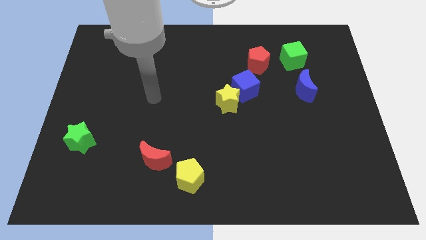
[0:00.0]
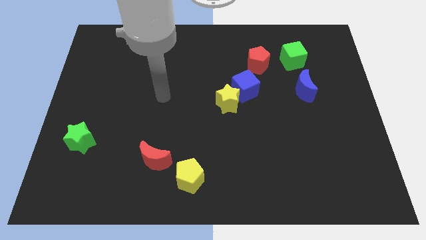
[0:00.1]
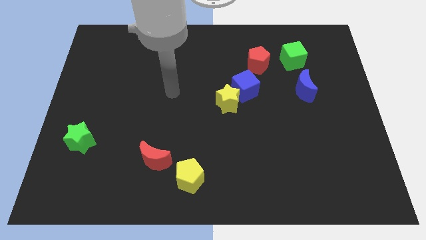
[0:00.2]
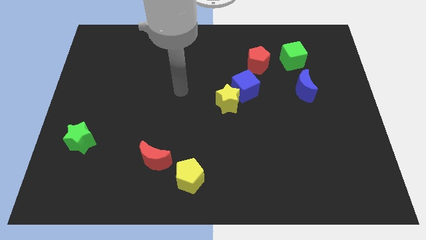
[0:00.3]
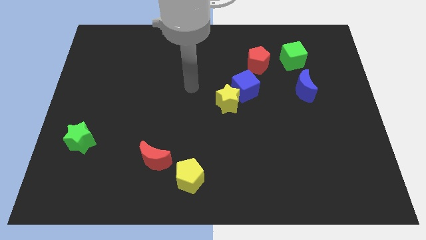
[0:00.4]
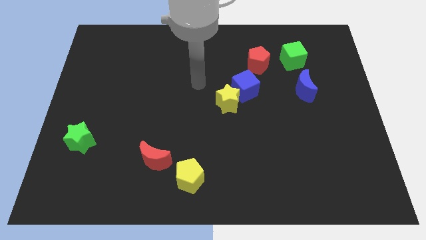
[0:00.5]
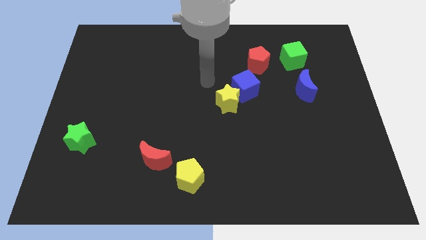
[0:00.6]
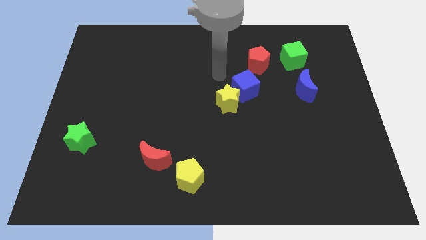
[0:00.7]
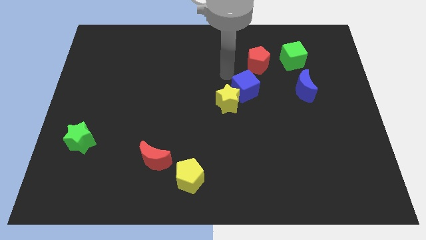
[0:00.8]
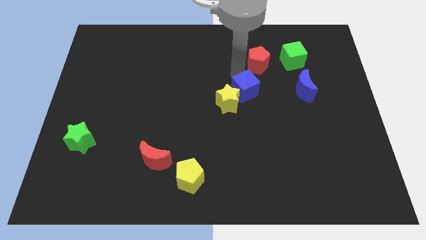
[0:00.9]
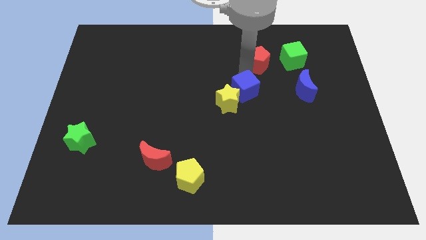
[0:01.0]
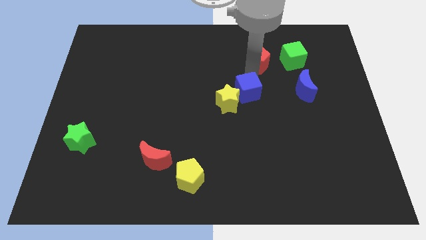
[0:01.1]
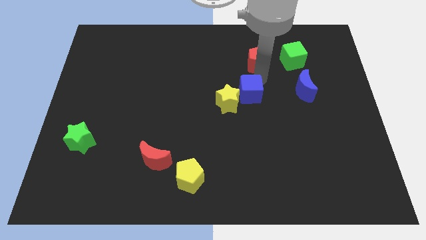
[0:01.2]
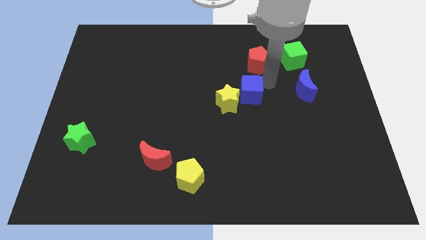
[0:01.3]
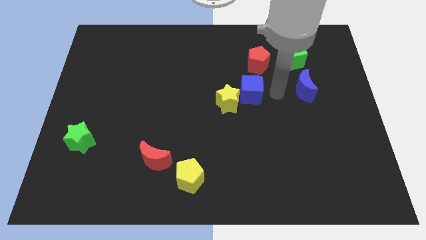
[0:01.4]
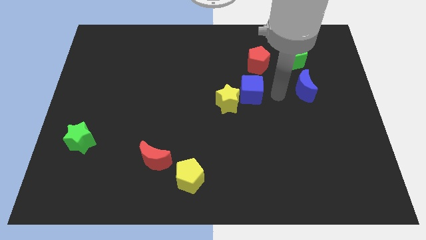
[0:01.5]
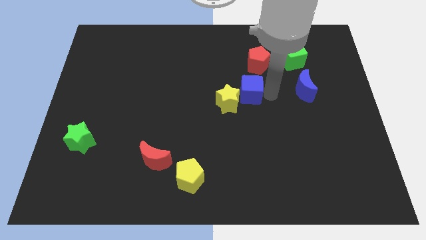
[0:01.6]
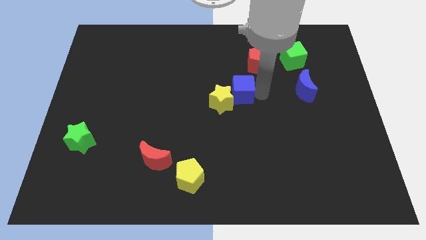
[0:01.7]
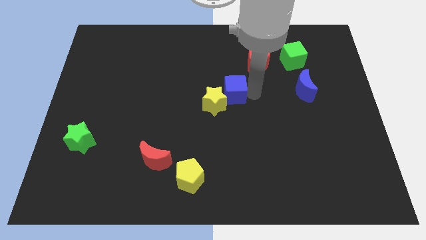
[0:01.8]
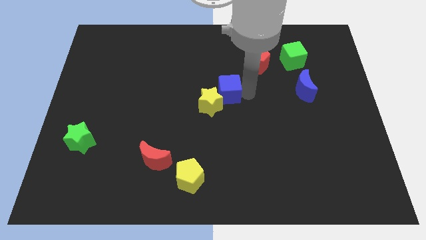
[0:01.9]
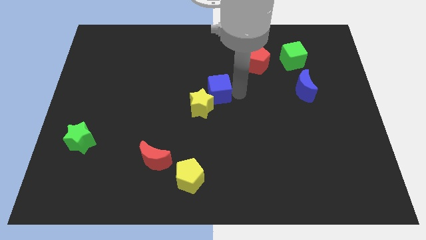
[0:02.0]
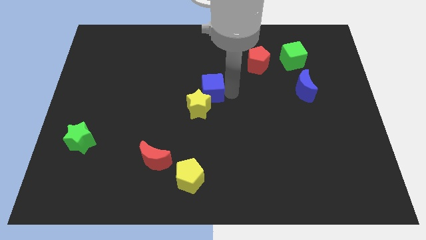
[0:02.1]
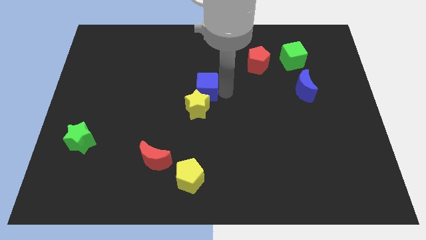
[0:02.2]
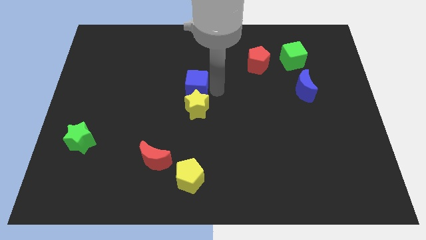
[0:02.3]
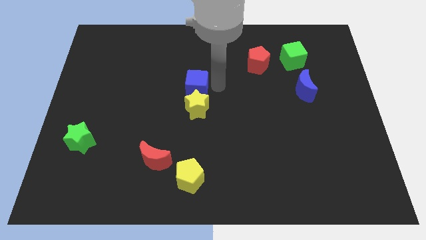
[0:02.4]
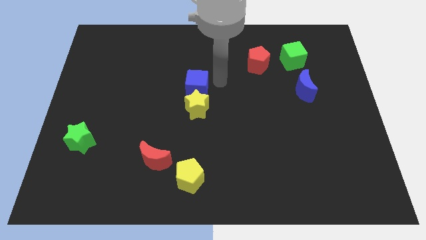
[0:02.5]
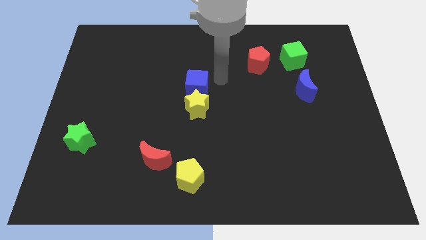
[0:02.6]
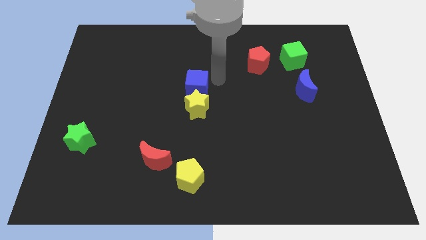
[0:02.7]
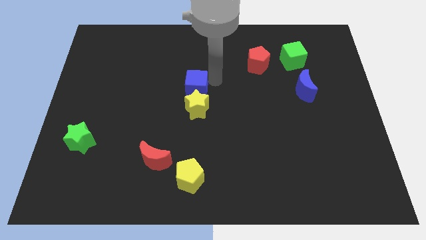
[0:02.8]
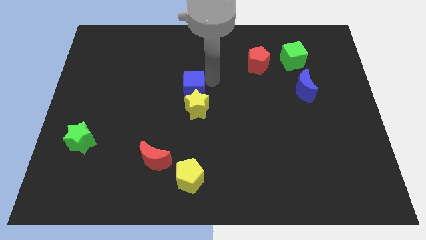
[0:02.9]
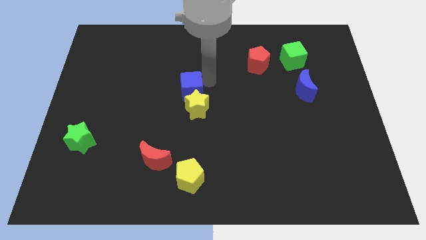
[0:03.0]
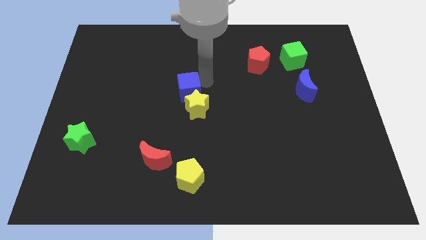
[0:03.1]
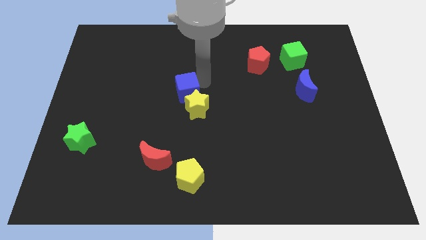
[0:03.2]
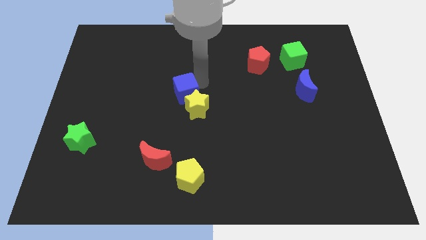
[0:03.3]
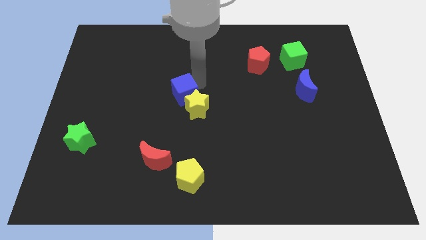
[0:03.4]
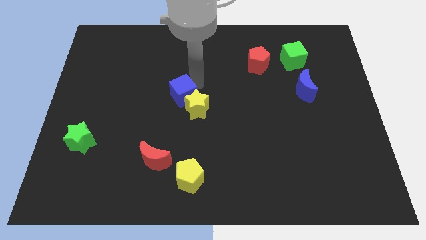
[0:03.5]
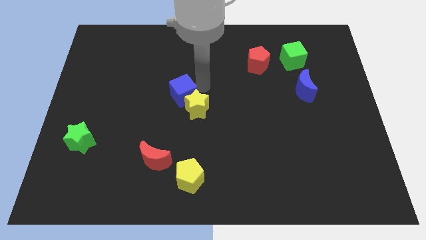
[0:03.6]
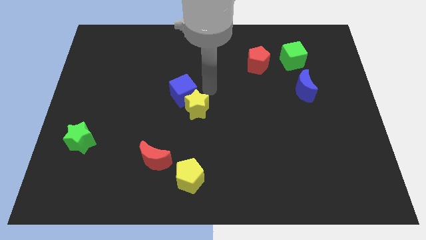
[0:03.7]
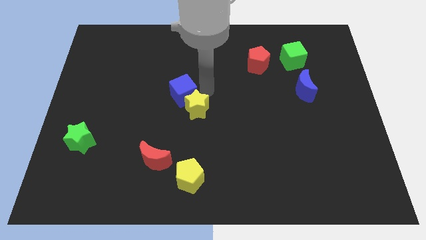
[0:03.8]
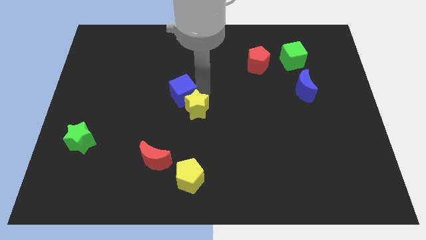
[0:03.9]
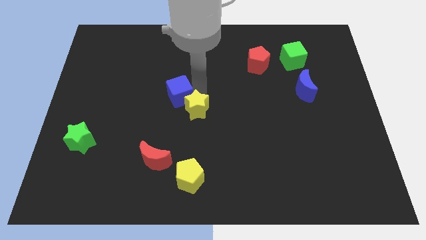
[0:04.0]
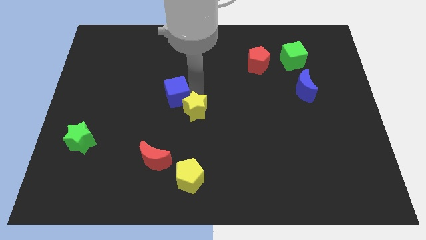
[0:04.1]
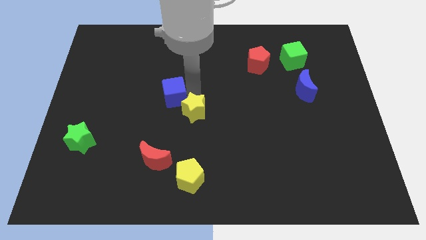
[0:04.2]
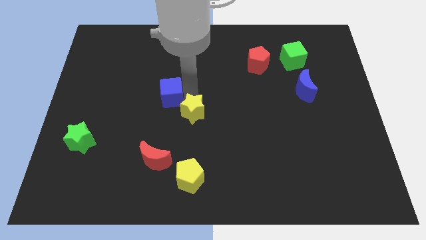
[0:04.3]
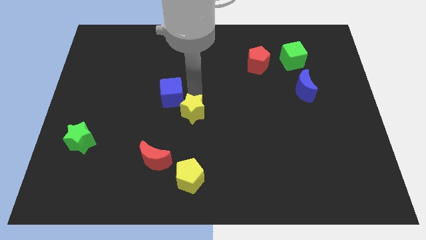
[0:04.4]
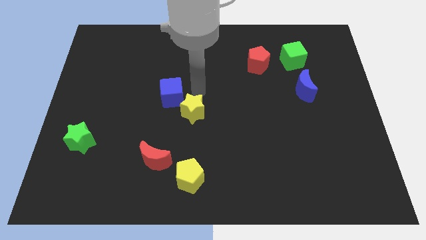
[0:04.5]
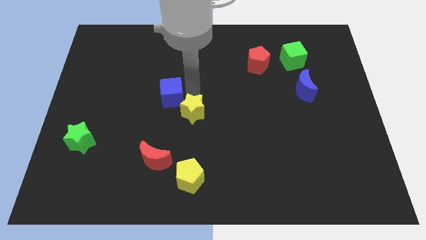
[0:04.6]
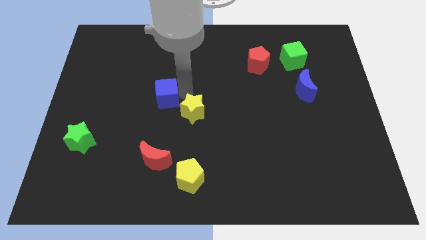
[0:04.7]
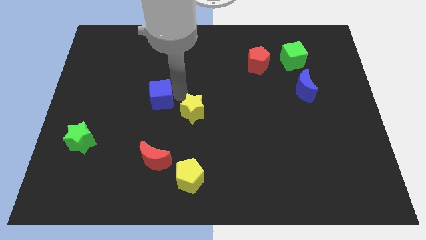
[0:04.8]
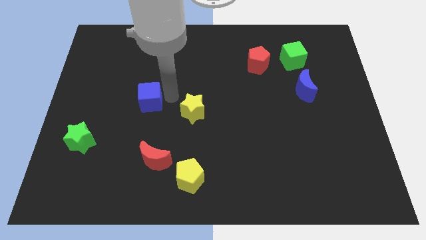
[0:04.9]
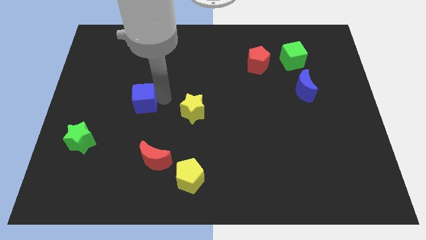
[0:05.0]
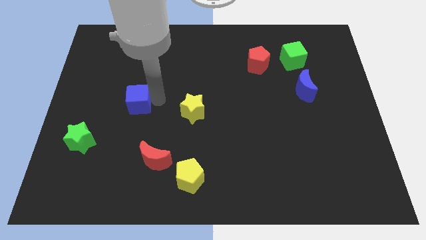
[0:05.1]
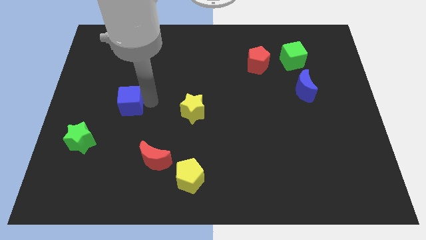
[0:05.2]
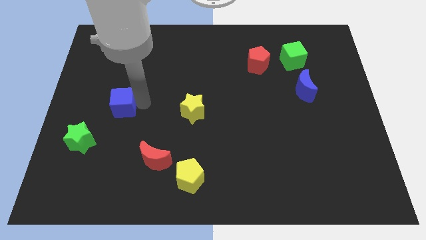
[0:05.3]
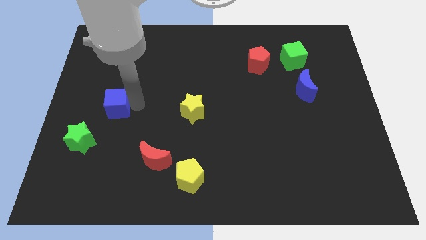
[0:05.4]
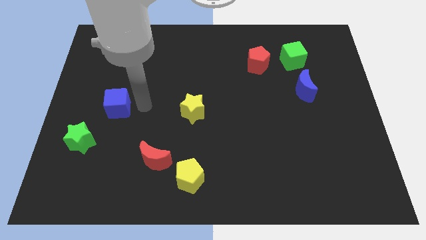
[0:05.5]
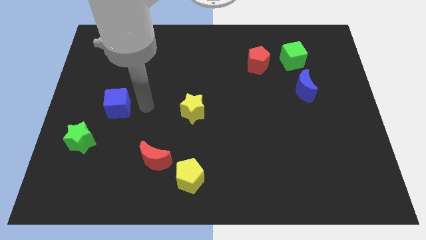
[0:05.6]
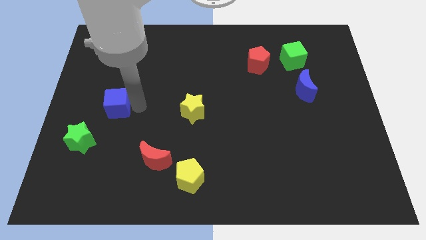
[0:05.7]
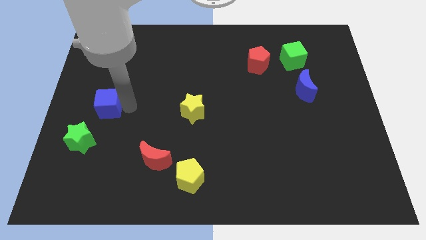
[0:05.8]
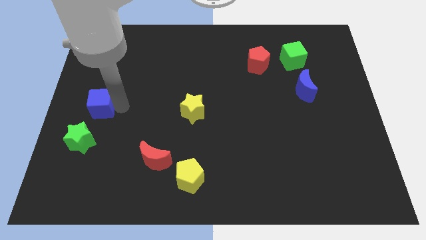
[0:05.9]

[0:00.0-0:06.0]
push the blue cube to the left side
